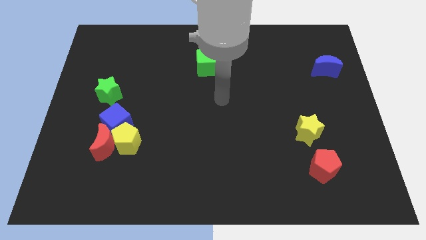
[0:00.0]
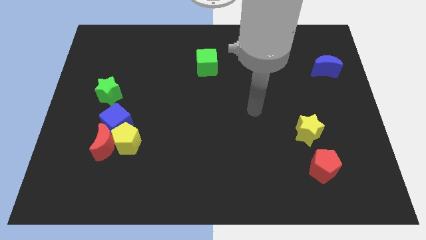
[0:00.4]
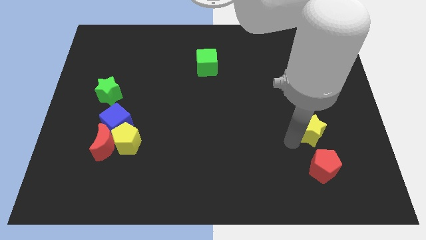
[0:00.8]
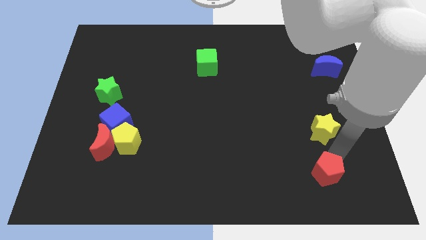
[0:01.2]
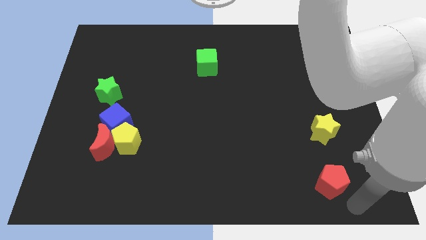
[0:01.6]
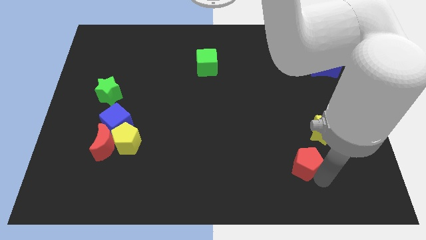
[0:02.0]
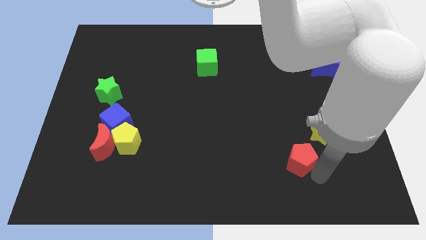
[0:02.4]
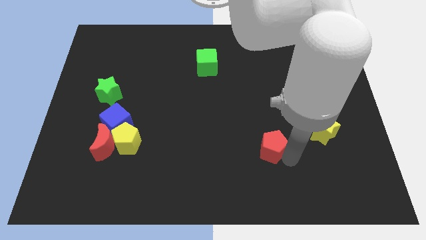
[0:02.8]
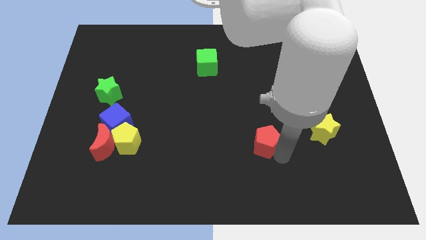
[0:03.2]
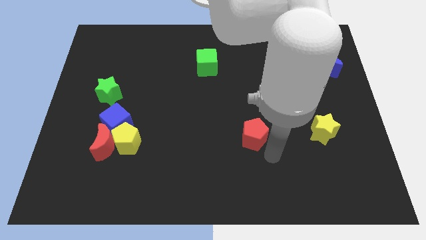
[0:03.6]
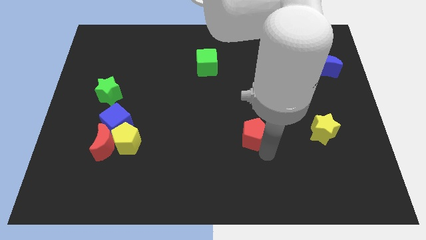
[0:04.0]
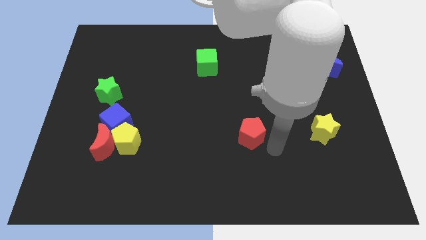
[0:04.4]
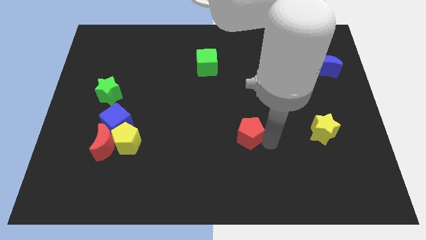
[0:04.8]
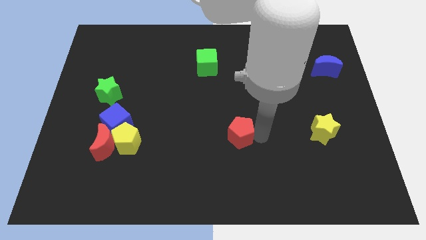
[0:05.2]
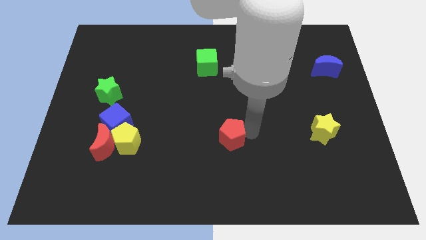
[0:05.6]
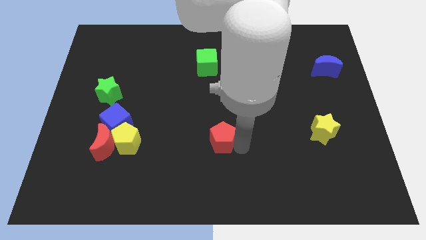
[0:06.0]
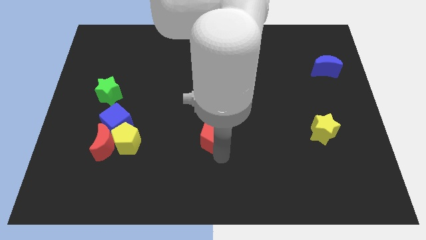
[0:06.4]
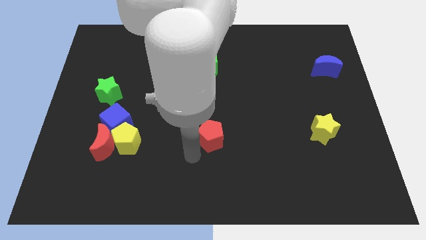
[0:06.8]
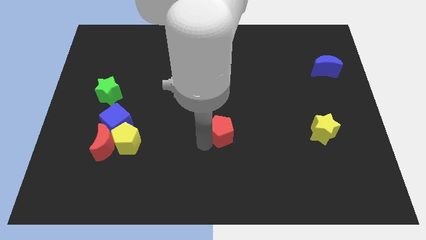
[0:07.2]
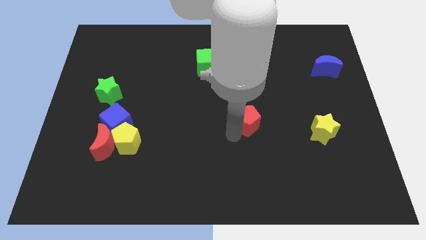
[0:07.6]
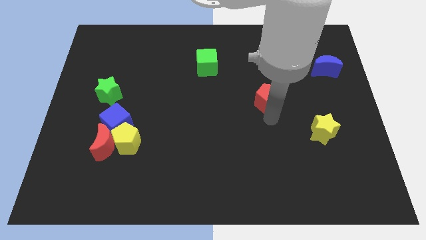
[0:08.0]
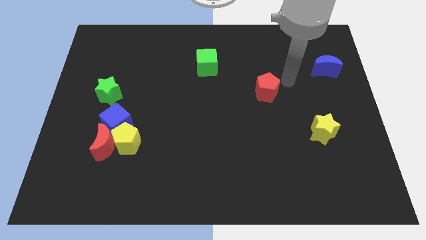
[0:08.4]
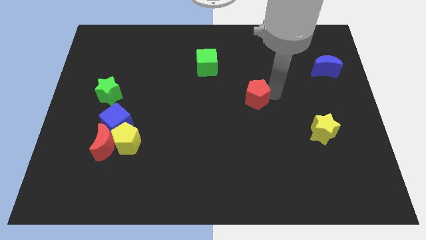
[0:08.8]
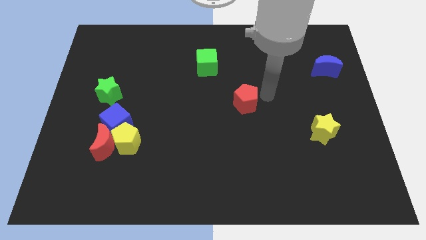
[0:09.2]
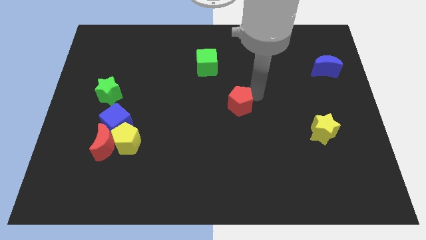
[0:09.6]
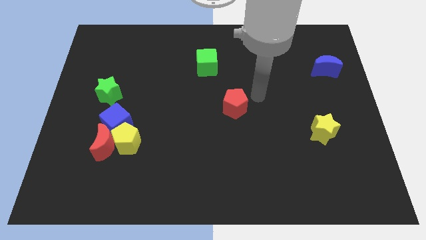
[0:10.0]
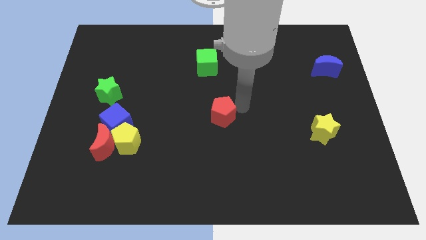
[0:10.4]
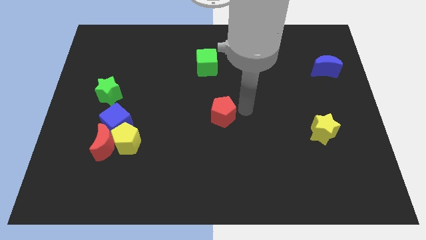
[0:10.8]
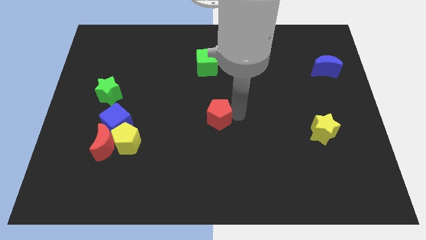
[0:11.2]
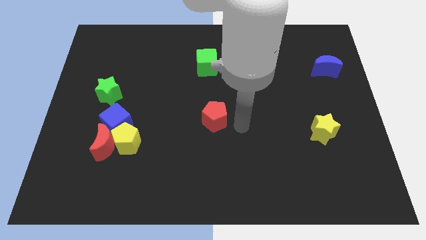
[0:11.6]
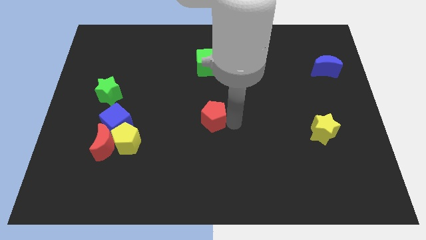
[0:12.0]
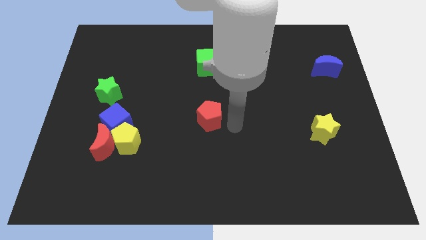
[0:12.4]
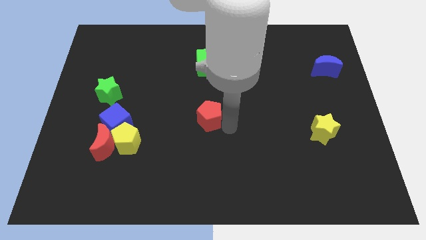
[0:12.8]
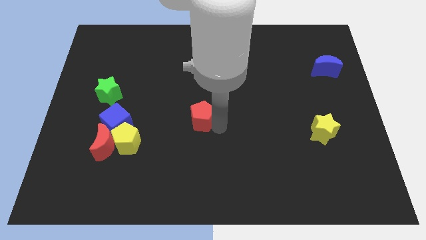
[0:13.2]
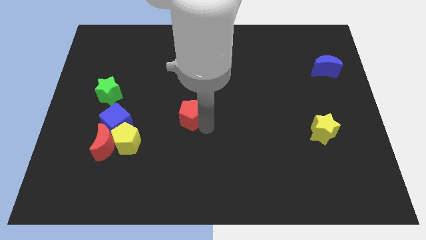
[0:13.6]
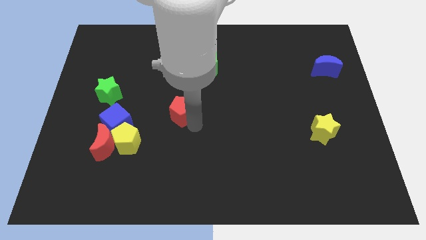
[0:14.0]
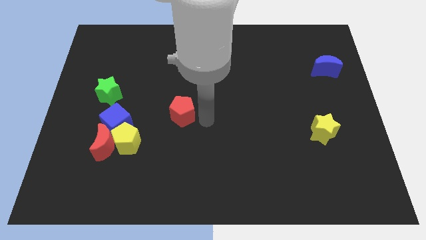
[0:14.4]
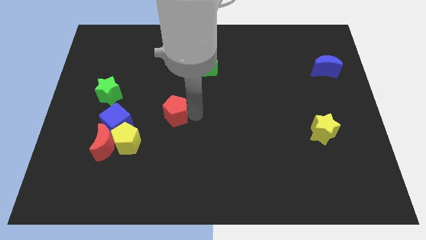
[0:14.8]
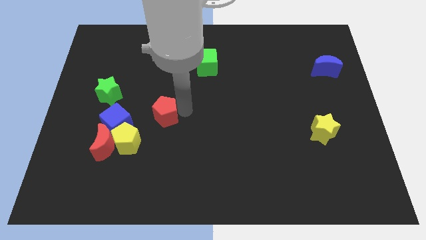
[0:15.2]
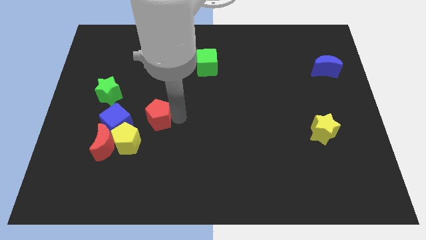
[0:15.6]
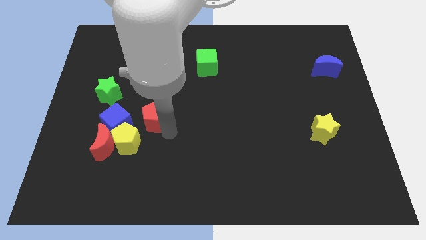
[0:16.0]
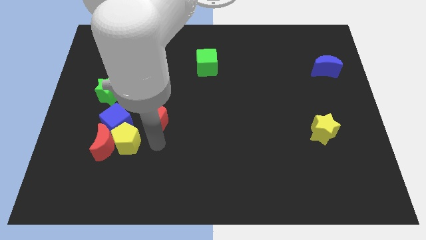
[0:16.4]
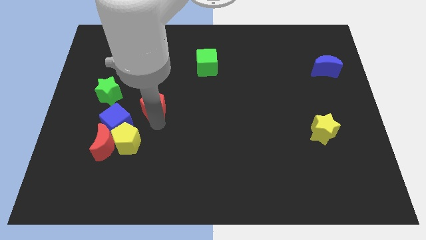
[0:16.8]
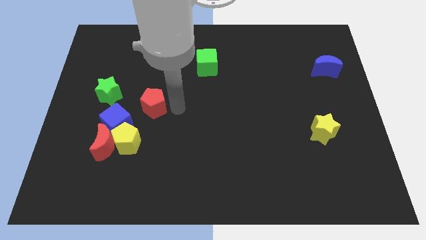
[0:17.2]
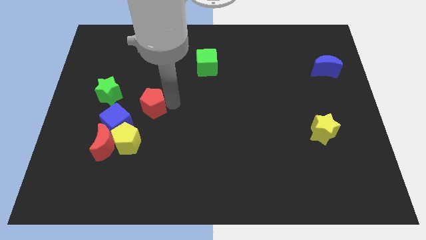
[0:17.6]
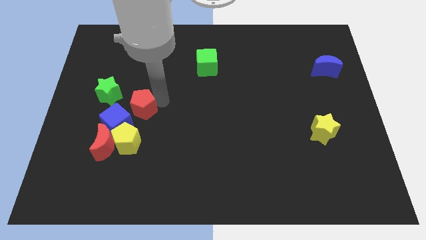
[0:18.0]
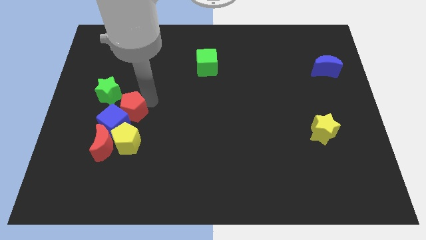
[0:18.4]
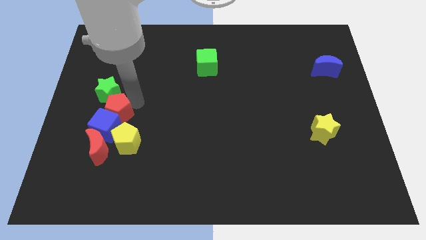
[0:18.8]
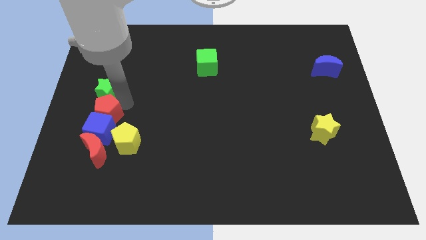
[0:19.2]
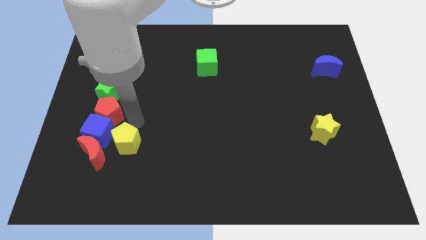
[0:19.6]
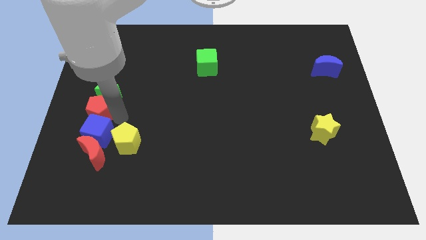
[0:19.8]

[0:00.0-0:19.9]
push the red pentagon to the left side of the board

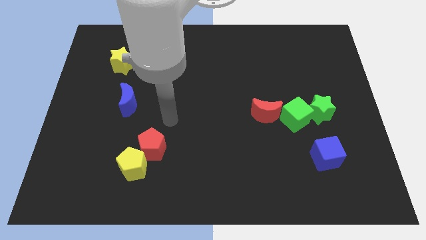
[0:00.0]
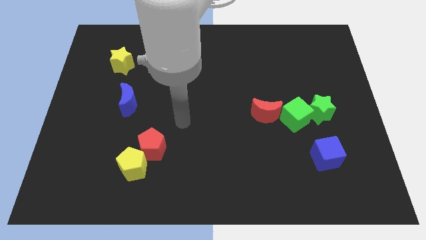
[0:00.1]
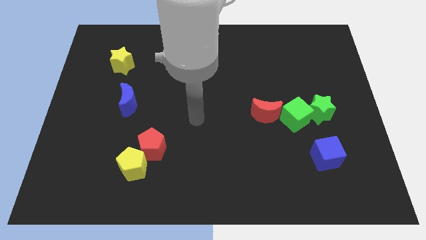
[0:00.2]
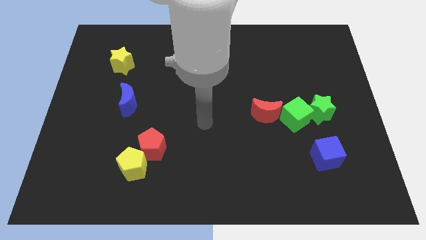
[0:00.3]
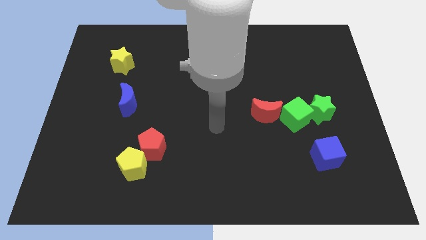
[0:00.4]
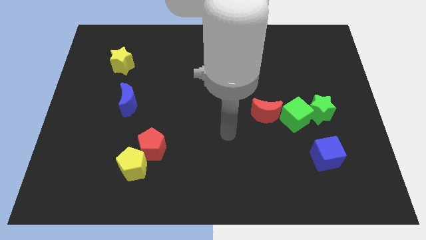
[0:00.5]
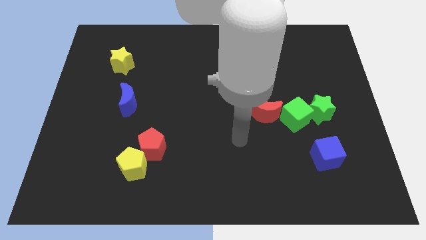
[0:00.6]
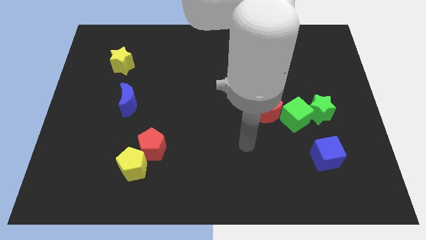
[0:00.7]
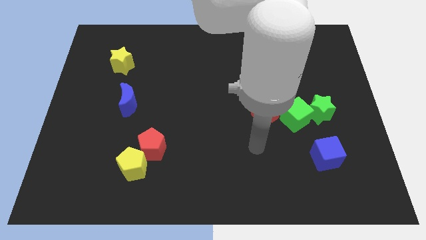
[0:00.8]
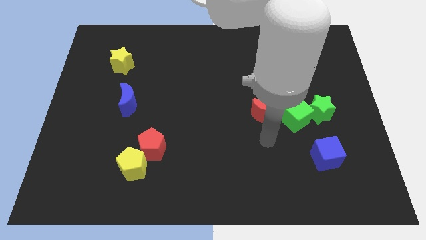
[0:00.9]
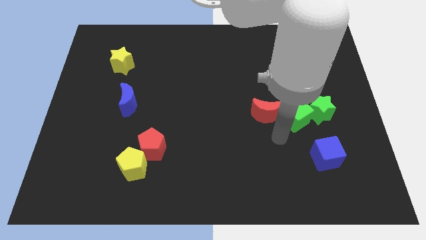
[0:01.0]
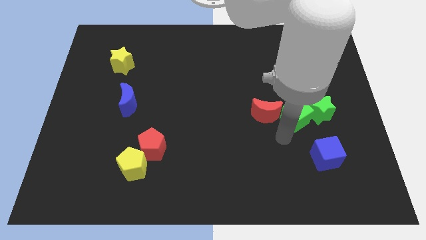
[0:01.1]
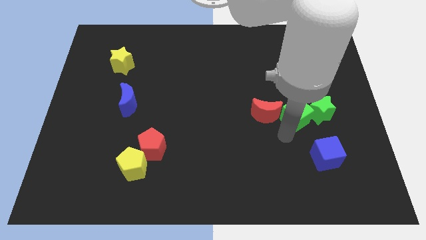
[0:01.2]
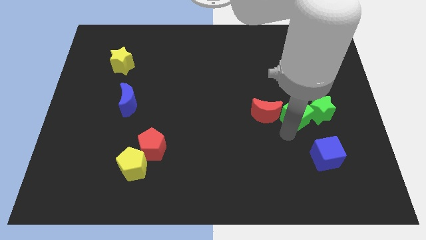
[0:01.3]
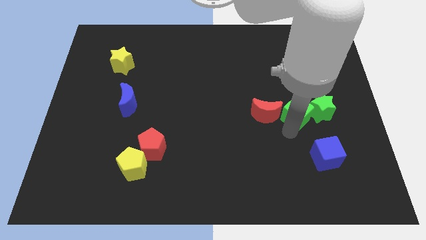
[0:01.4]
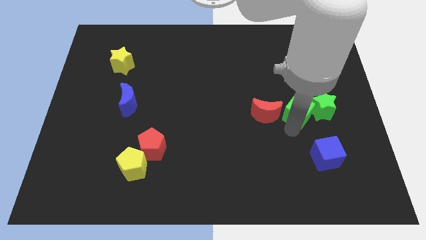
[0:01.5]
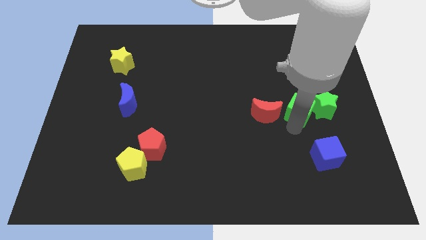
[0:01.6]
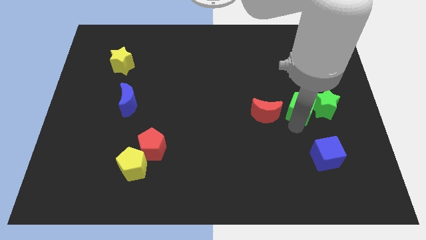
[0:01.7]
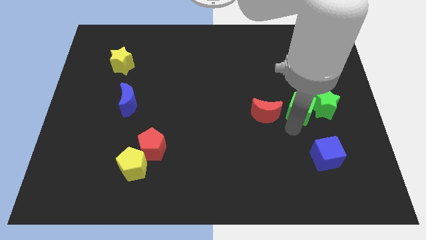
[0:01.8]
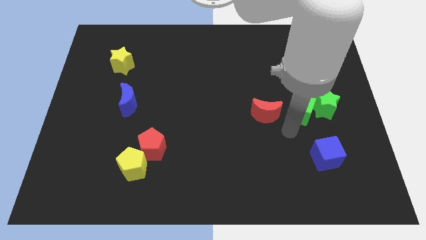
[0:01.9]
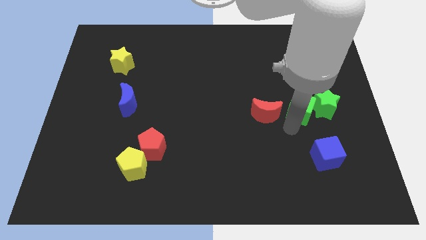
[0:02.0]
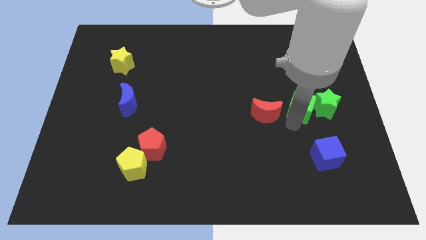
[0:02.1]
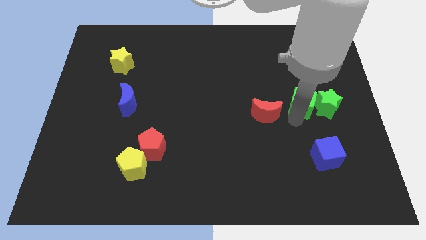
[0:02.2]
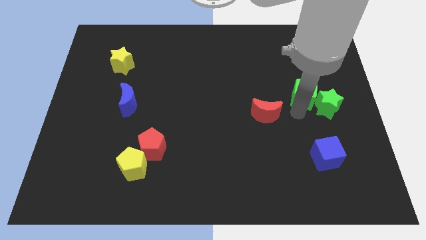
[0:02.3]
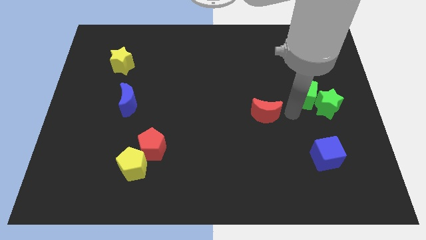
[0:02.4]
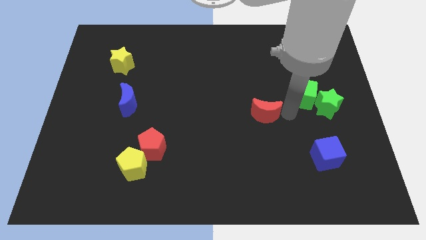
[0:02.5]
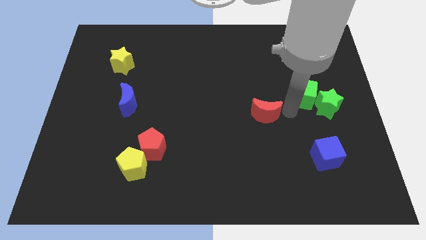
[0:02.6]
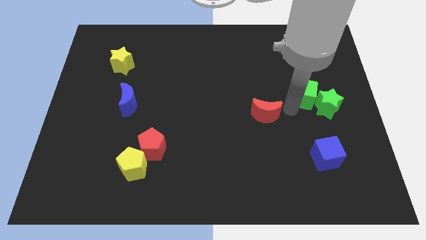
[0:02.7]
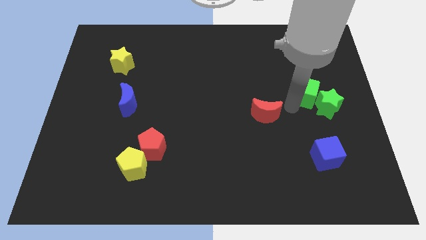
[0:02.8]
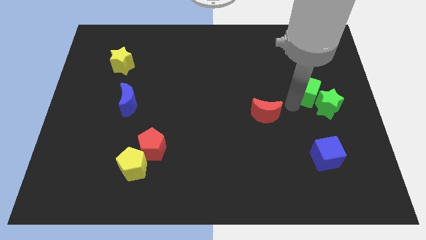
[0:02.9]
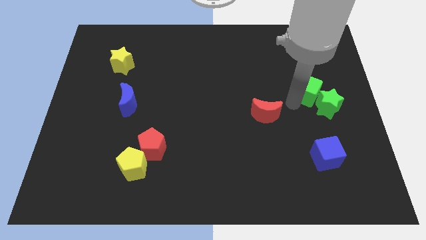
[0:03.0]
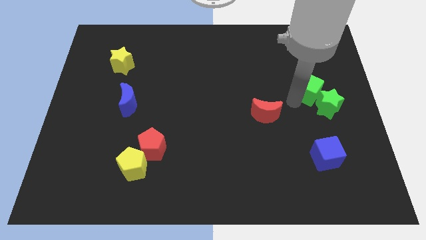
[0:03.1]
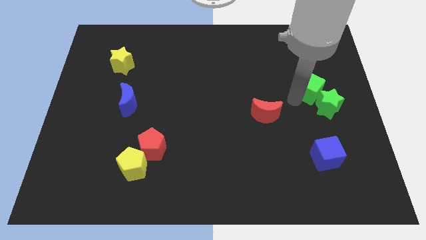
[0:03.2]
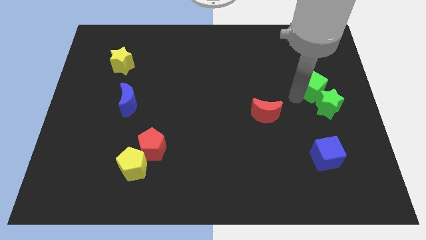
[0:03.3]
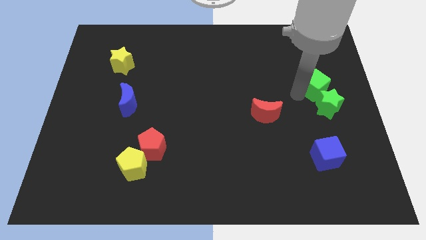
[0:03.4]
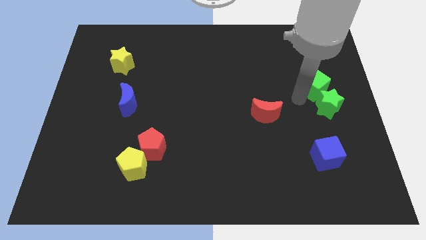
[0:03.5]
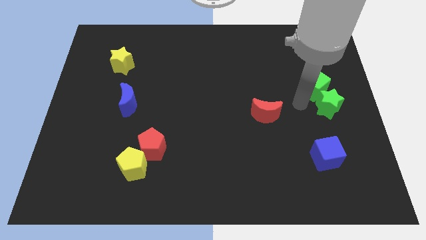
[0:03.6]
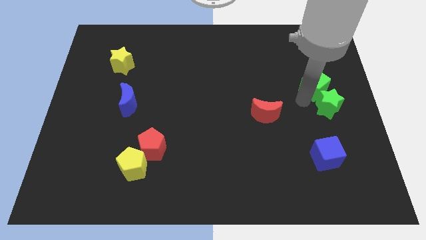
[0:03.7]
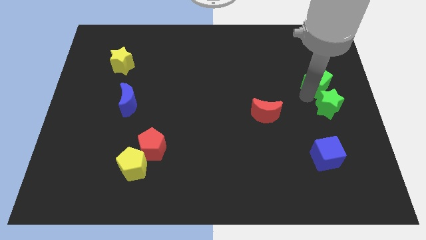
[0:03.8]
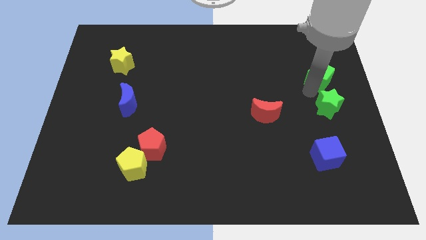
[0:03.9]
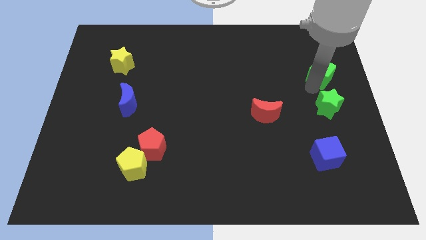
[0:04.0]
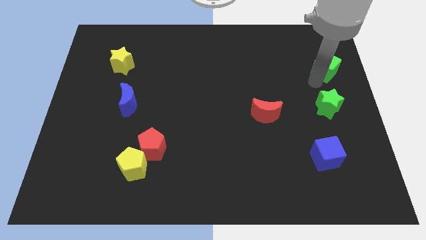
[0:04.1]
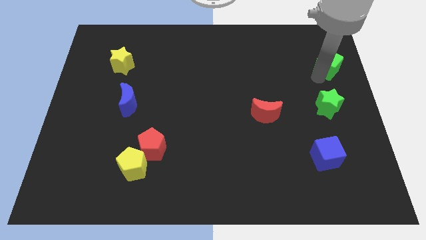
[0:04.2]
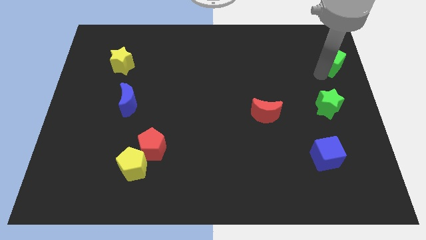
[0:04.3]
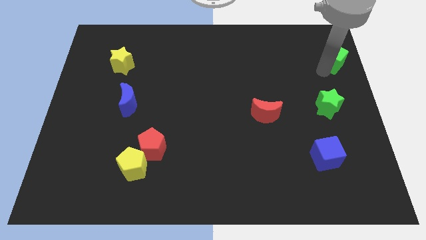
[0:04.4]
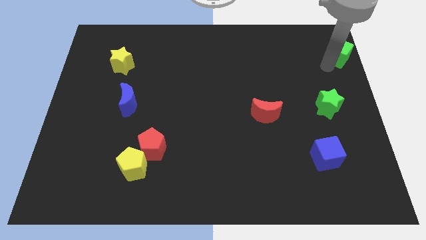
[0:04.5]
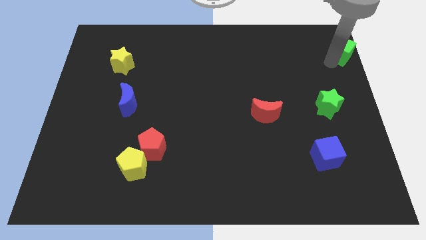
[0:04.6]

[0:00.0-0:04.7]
move the green cube to the top right corner
